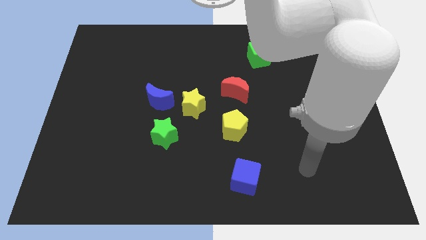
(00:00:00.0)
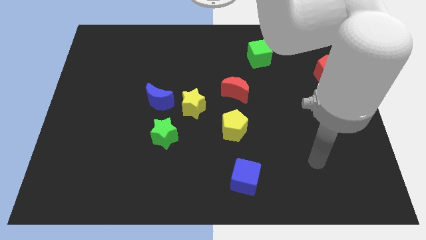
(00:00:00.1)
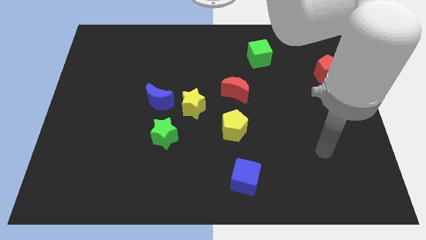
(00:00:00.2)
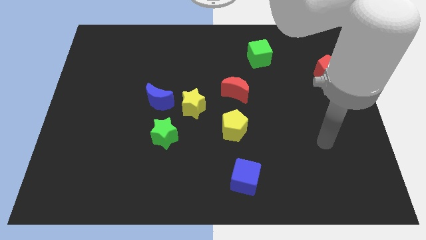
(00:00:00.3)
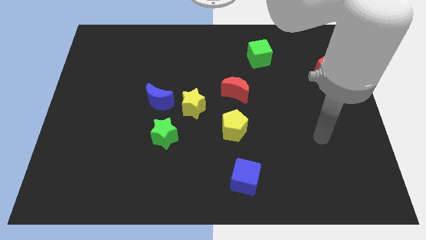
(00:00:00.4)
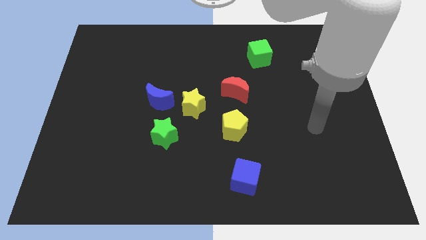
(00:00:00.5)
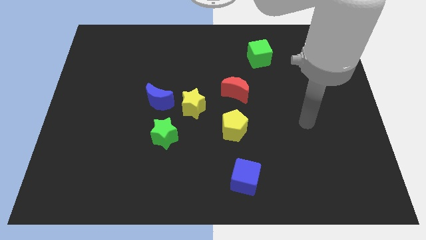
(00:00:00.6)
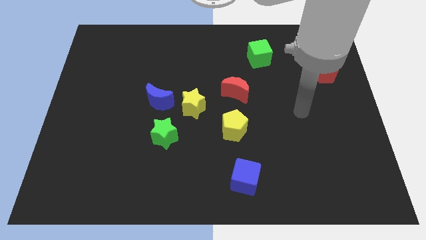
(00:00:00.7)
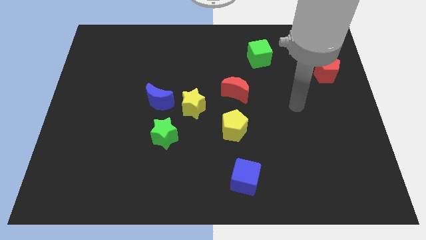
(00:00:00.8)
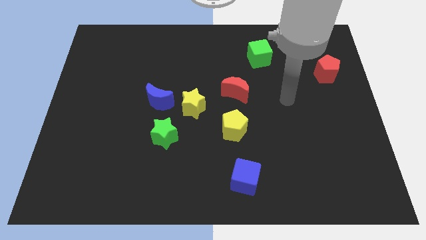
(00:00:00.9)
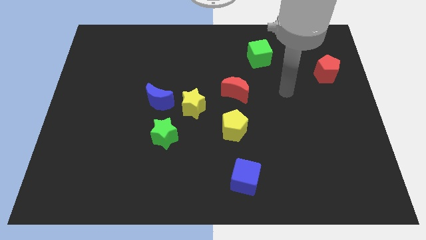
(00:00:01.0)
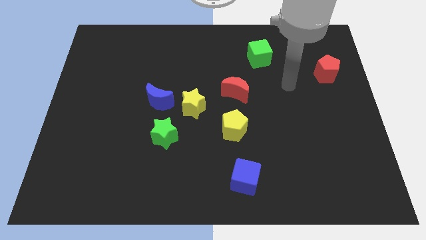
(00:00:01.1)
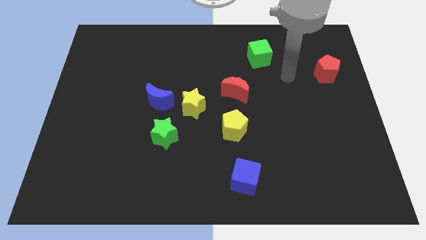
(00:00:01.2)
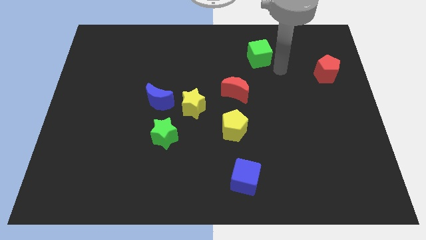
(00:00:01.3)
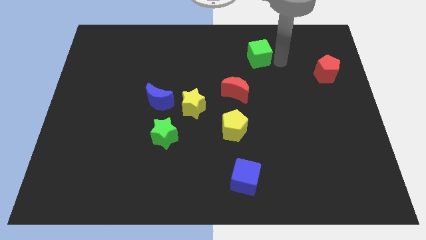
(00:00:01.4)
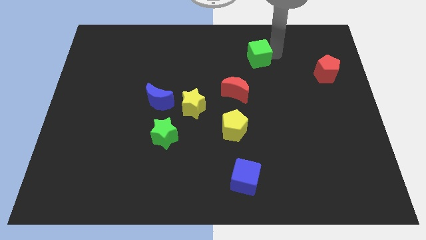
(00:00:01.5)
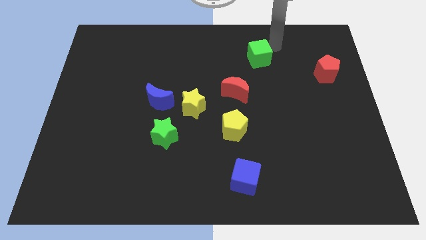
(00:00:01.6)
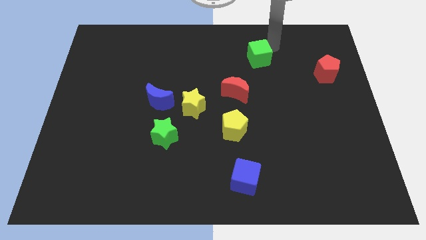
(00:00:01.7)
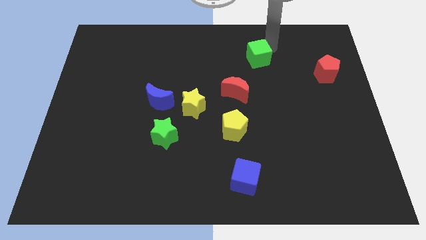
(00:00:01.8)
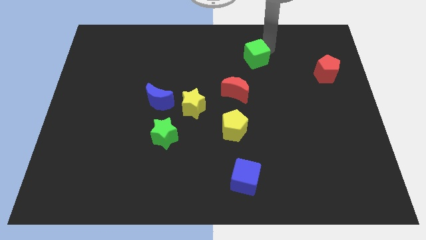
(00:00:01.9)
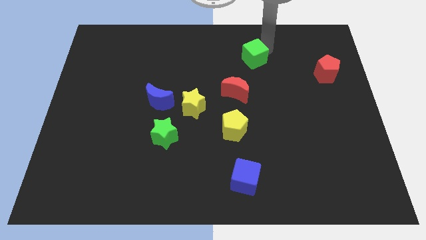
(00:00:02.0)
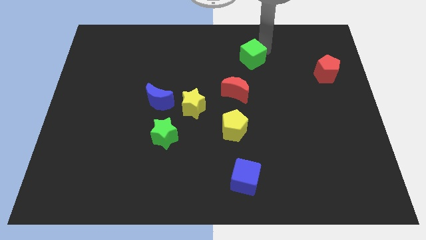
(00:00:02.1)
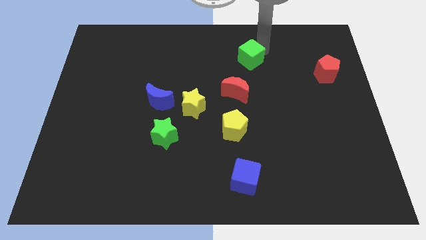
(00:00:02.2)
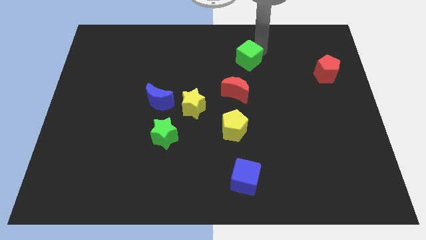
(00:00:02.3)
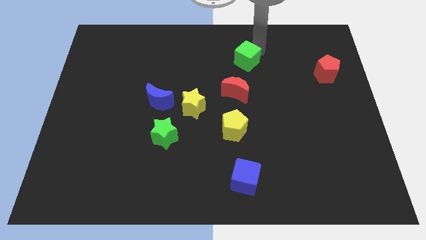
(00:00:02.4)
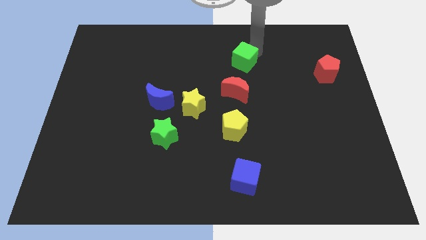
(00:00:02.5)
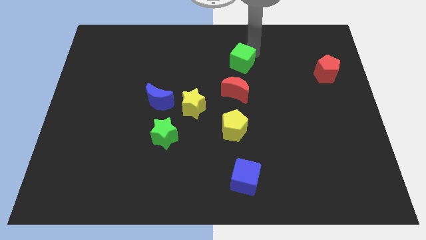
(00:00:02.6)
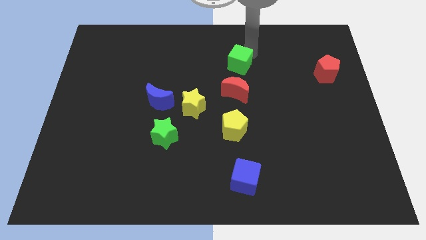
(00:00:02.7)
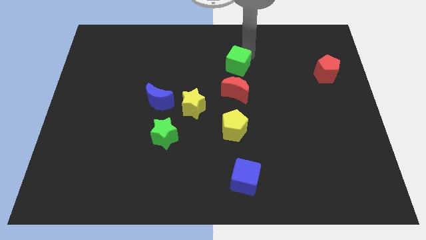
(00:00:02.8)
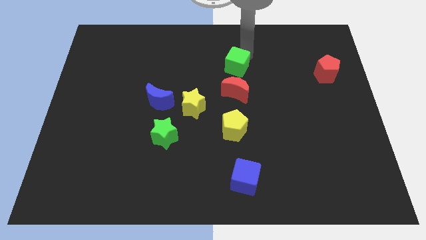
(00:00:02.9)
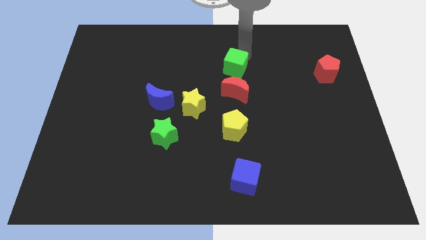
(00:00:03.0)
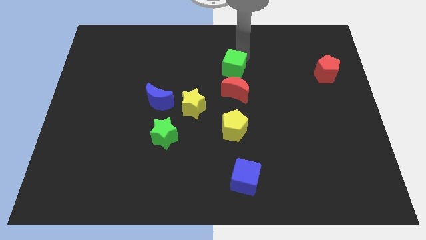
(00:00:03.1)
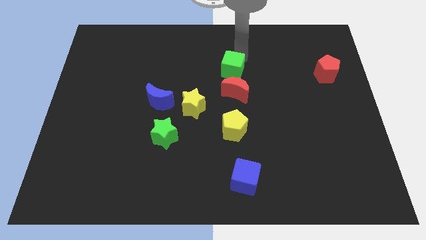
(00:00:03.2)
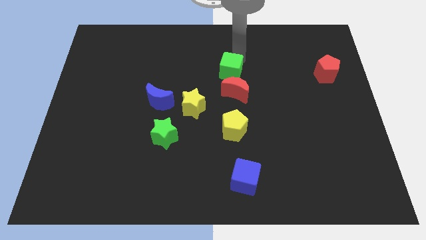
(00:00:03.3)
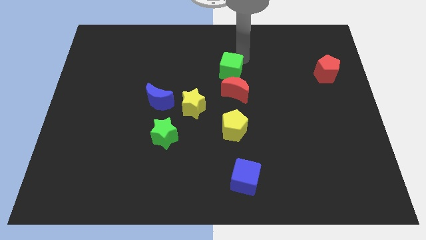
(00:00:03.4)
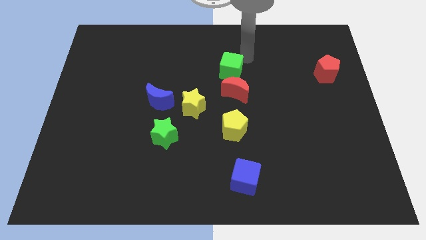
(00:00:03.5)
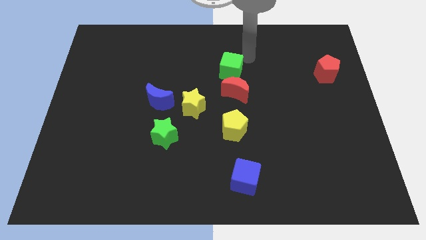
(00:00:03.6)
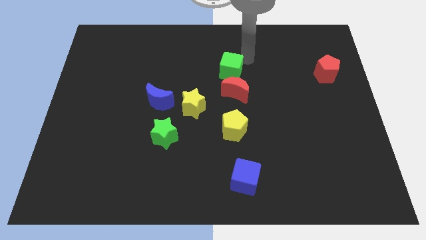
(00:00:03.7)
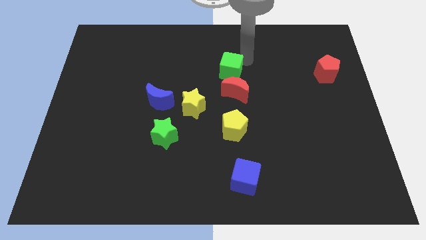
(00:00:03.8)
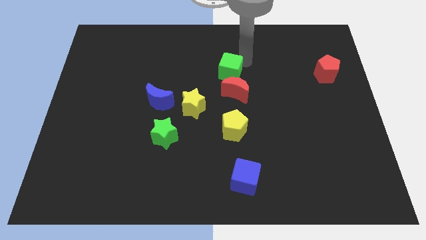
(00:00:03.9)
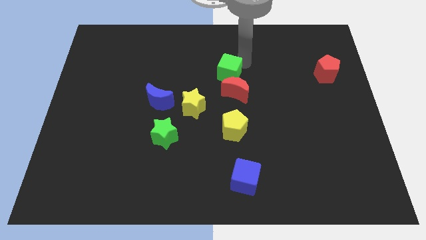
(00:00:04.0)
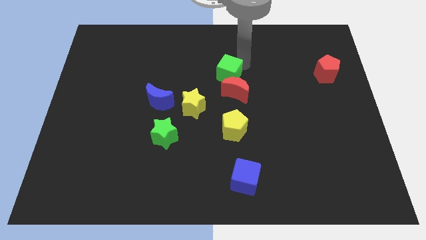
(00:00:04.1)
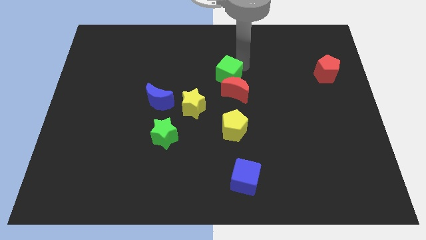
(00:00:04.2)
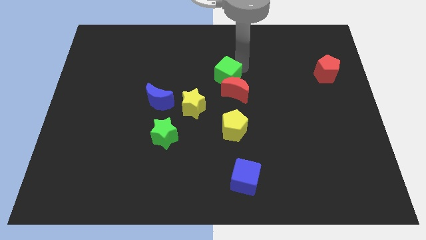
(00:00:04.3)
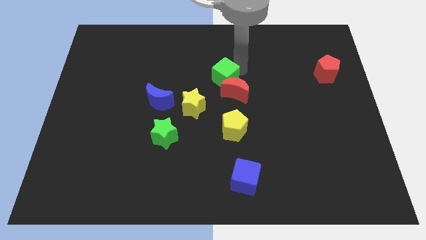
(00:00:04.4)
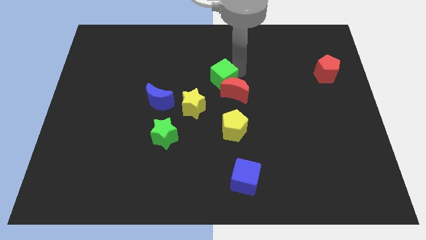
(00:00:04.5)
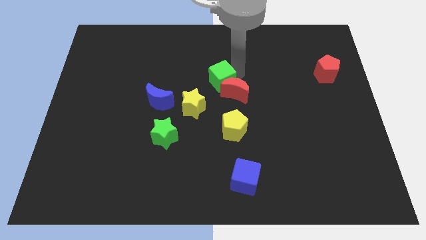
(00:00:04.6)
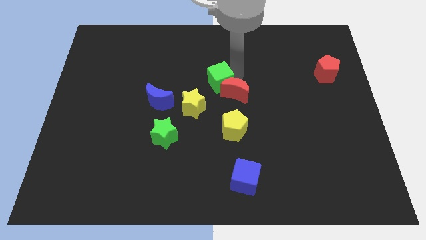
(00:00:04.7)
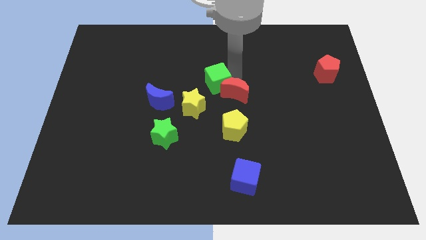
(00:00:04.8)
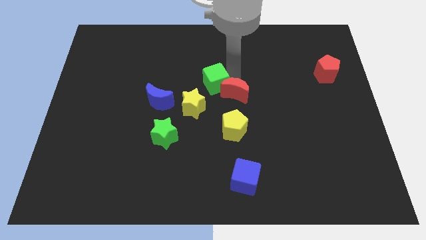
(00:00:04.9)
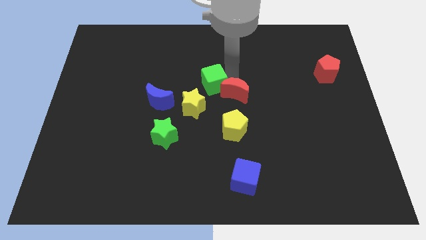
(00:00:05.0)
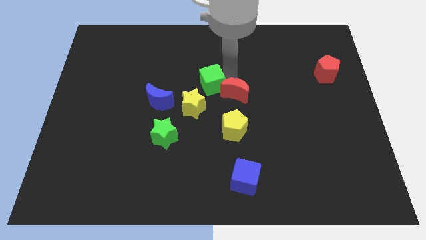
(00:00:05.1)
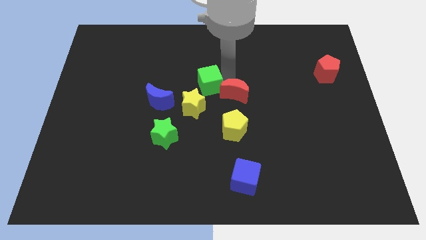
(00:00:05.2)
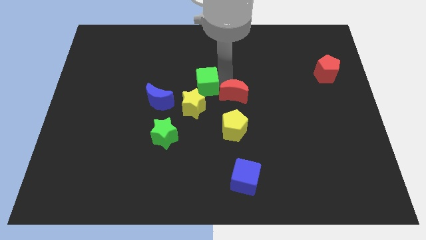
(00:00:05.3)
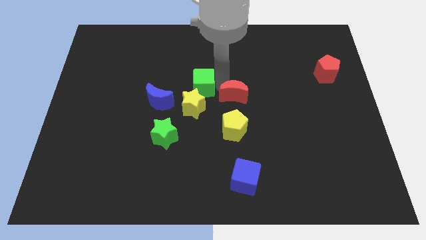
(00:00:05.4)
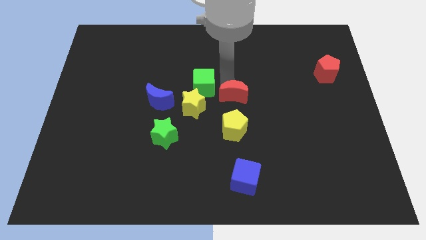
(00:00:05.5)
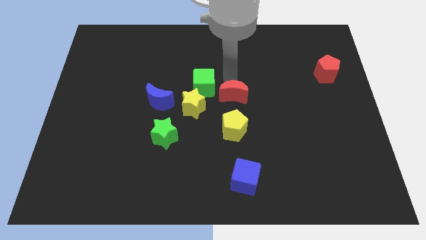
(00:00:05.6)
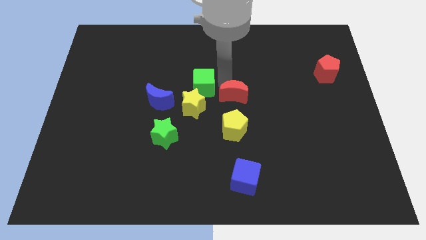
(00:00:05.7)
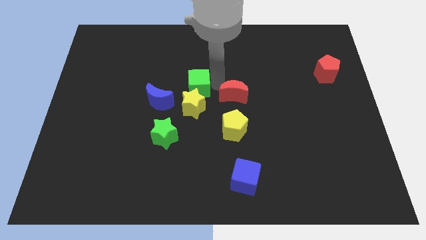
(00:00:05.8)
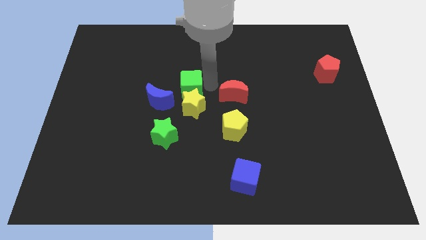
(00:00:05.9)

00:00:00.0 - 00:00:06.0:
put the green cube to the top left of the yellow star

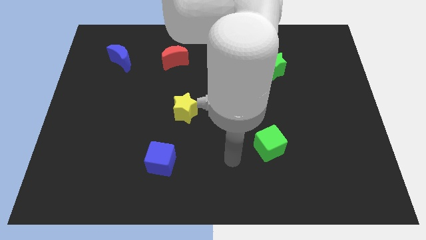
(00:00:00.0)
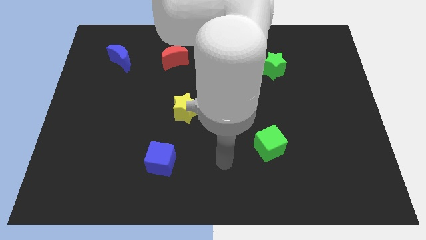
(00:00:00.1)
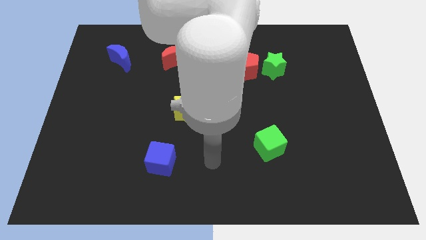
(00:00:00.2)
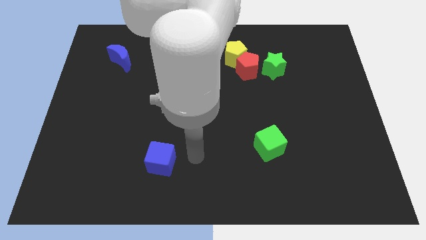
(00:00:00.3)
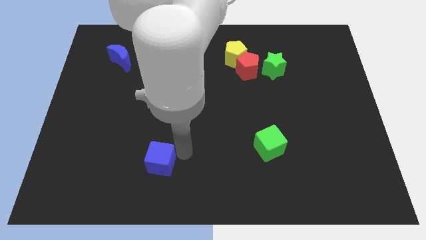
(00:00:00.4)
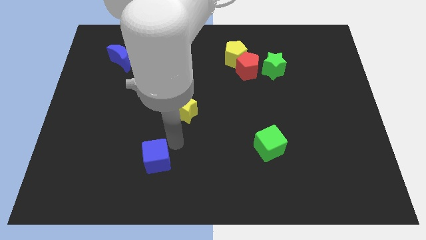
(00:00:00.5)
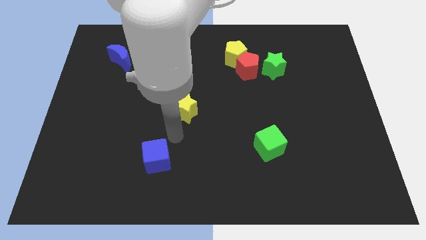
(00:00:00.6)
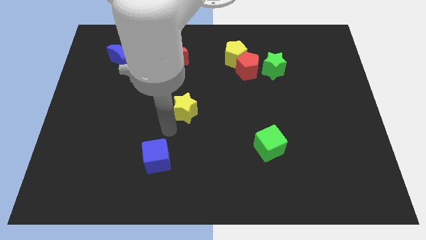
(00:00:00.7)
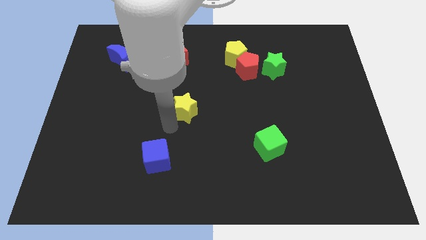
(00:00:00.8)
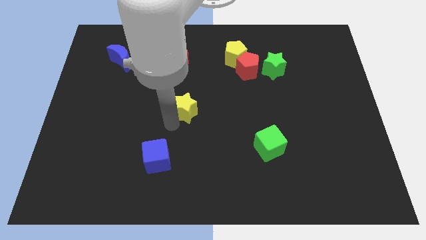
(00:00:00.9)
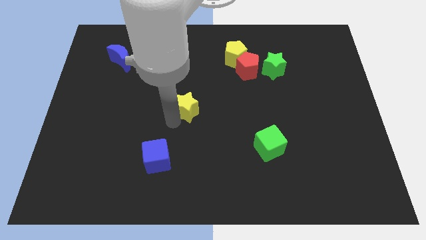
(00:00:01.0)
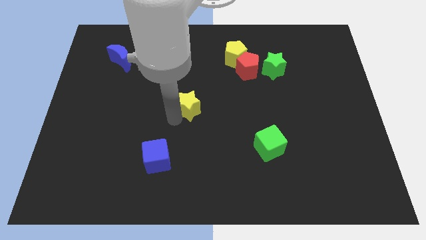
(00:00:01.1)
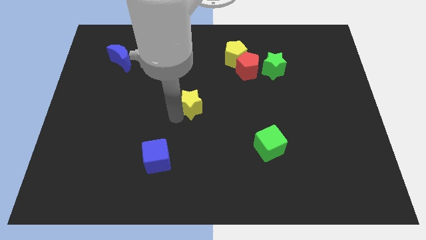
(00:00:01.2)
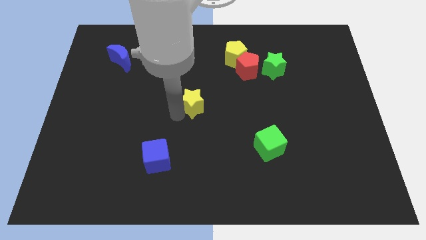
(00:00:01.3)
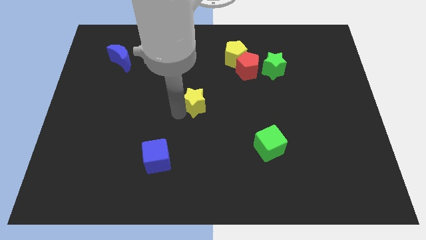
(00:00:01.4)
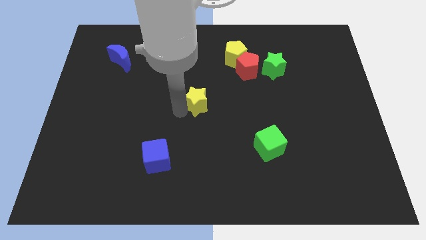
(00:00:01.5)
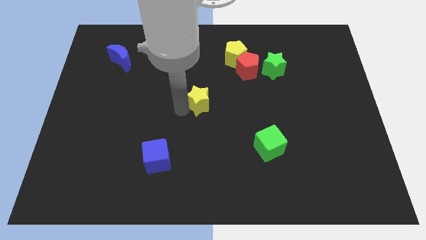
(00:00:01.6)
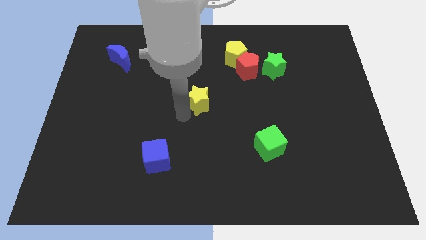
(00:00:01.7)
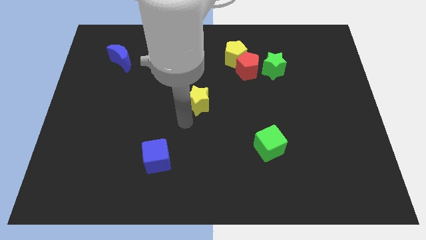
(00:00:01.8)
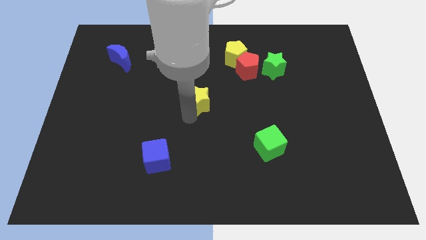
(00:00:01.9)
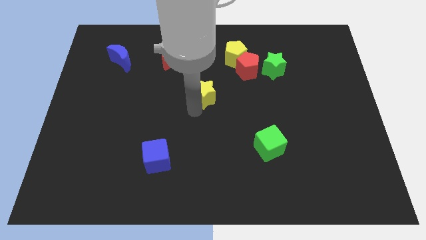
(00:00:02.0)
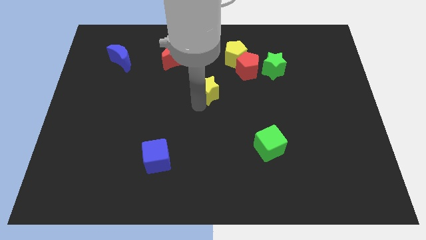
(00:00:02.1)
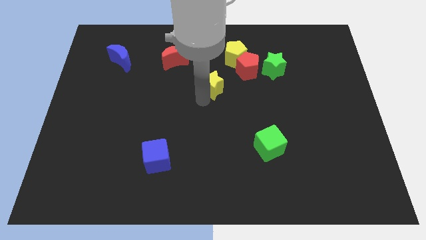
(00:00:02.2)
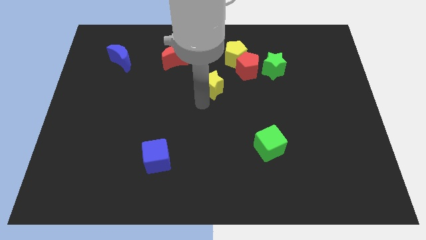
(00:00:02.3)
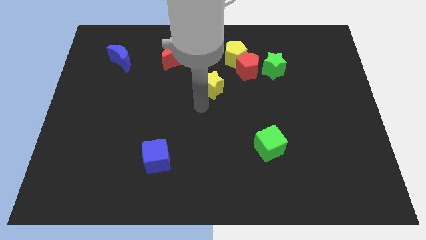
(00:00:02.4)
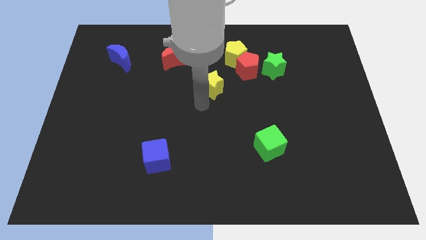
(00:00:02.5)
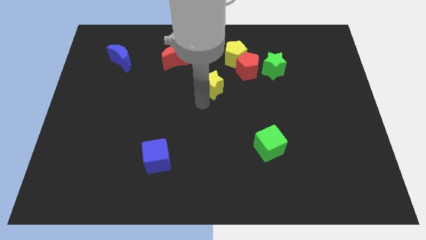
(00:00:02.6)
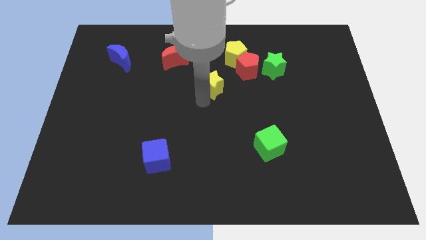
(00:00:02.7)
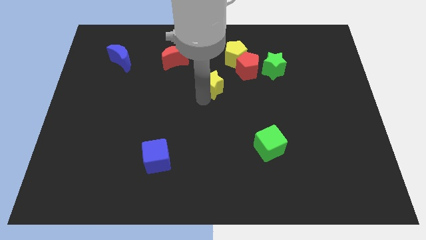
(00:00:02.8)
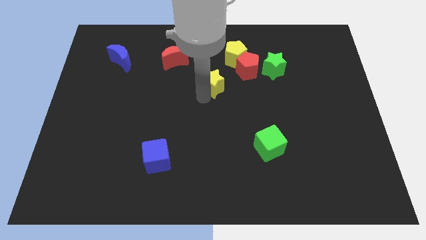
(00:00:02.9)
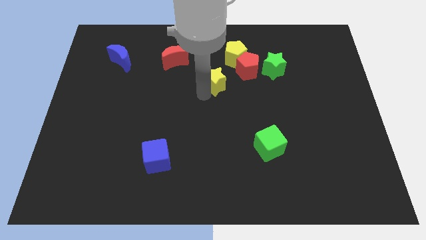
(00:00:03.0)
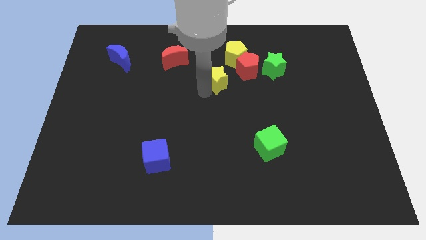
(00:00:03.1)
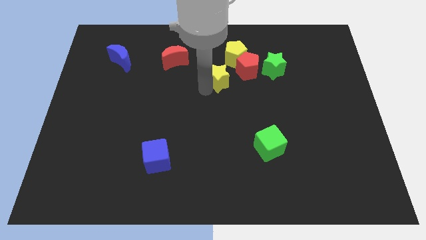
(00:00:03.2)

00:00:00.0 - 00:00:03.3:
move the yellow star to the left of the green star
